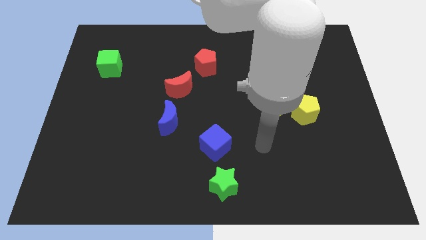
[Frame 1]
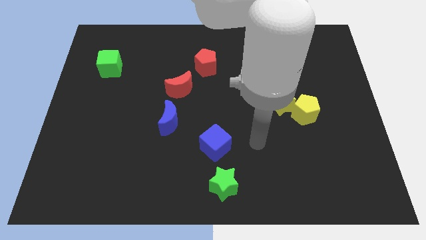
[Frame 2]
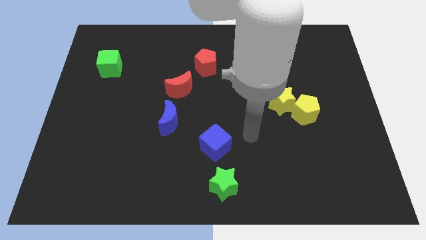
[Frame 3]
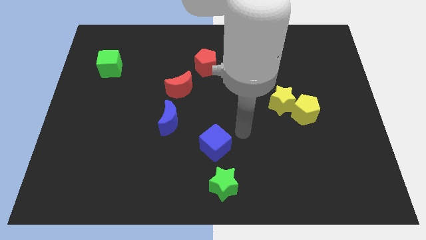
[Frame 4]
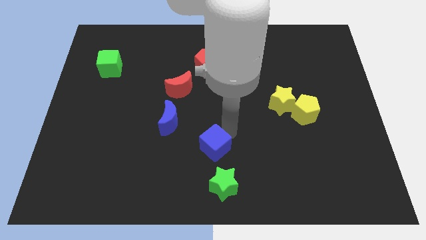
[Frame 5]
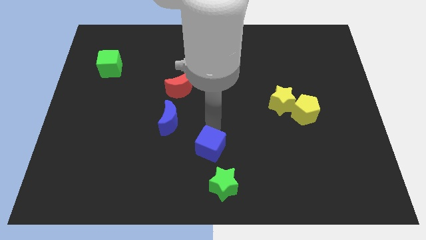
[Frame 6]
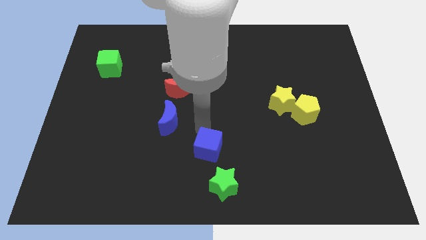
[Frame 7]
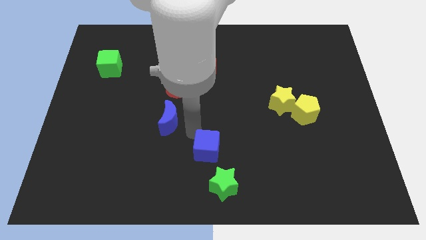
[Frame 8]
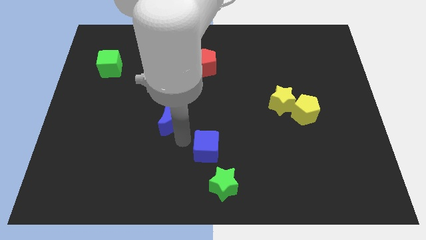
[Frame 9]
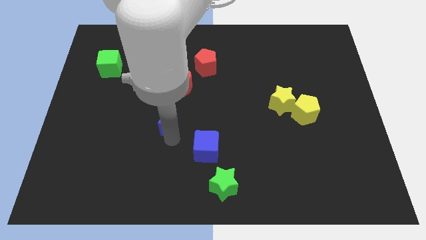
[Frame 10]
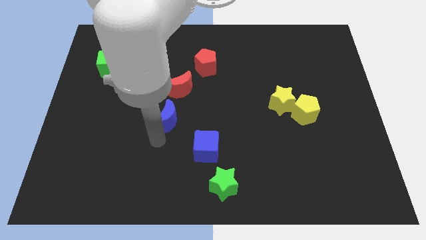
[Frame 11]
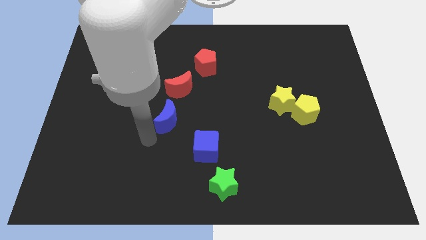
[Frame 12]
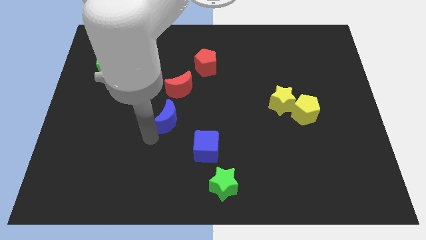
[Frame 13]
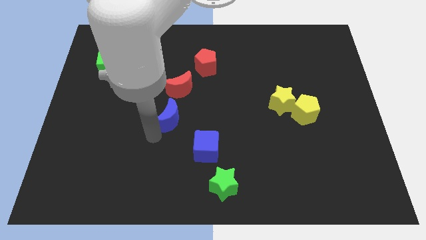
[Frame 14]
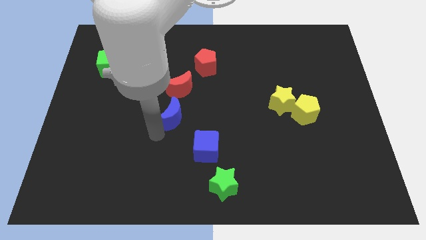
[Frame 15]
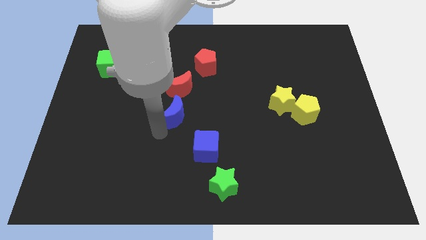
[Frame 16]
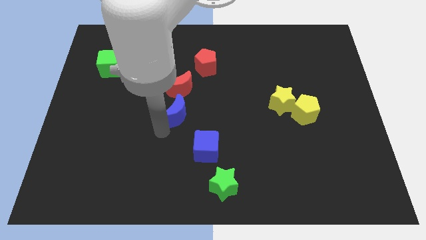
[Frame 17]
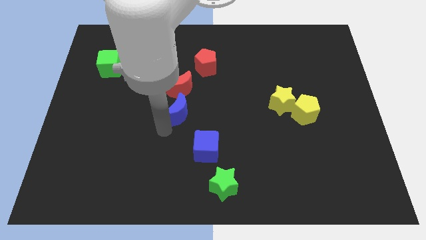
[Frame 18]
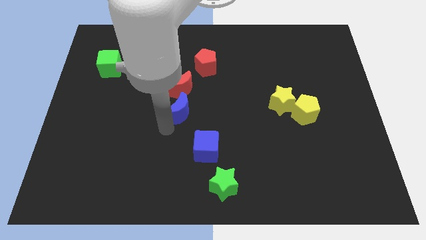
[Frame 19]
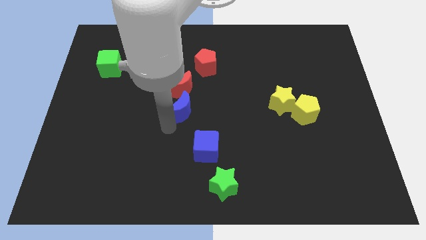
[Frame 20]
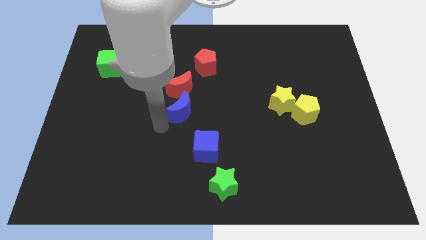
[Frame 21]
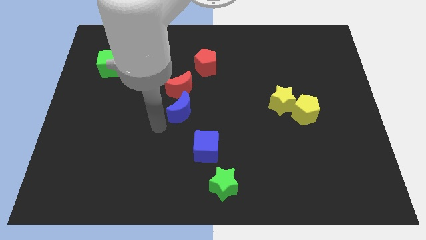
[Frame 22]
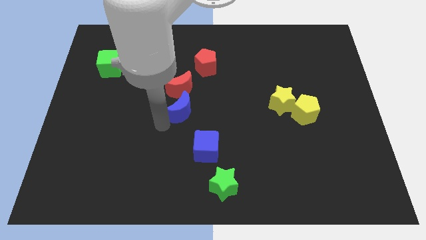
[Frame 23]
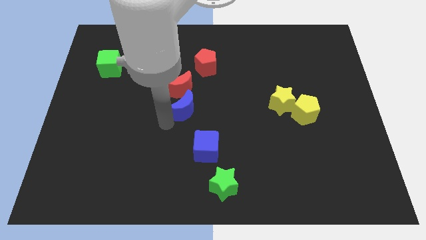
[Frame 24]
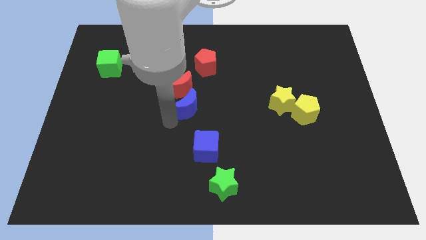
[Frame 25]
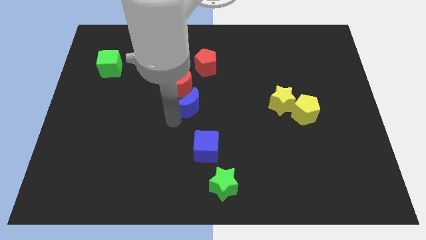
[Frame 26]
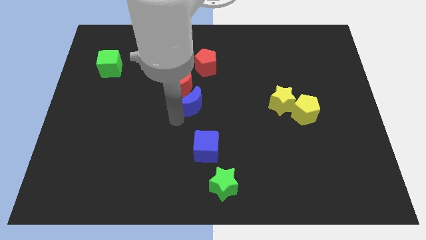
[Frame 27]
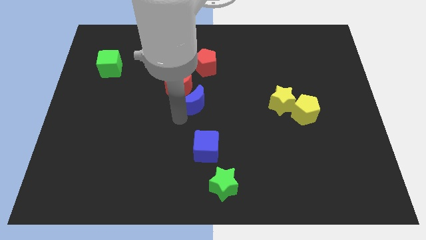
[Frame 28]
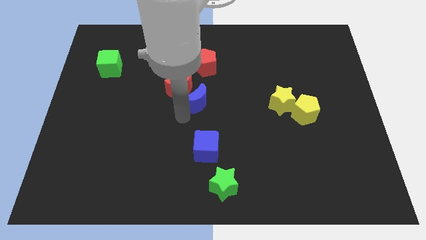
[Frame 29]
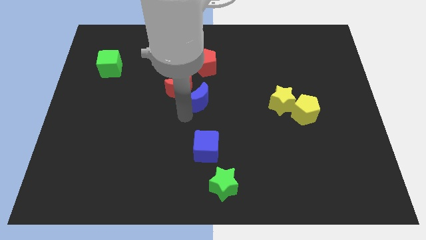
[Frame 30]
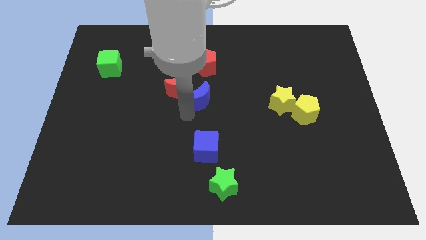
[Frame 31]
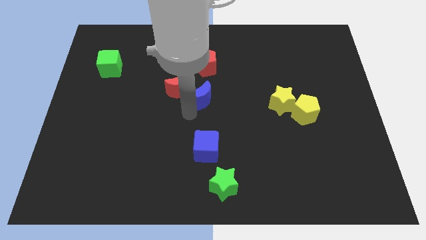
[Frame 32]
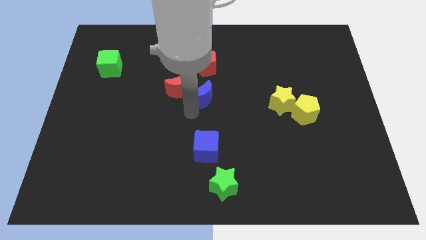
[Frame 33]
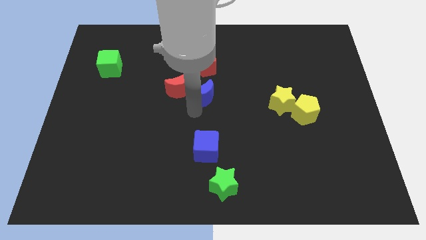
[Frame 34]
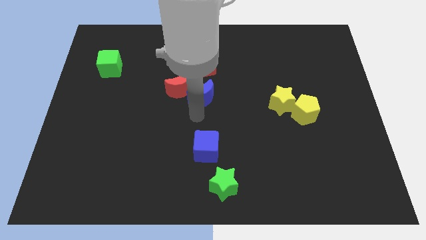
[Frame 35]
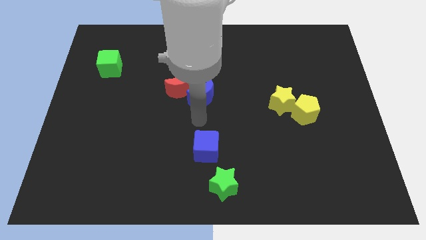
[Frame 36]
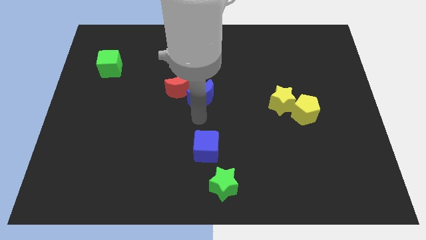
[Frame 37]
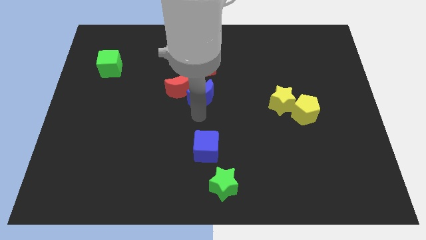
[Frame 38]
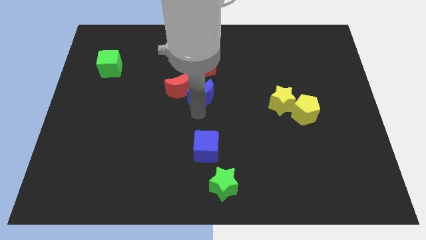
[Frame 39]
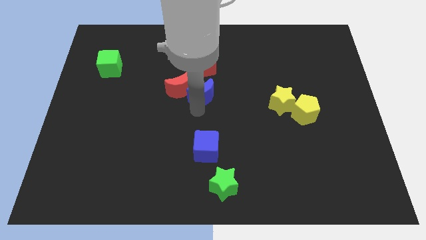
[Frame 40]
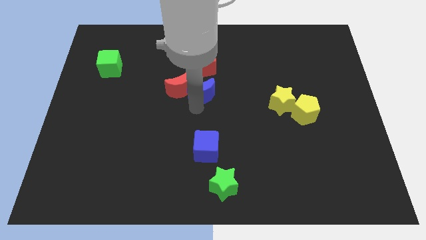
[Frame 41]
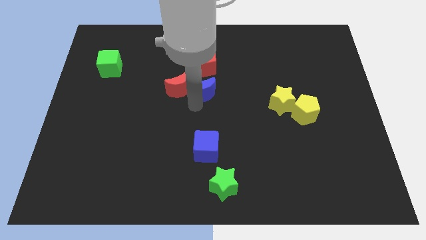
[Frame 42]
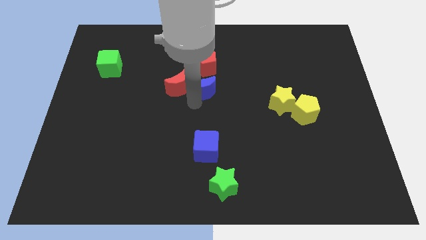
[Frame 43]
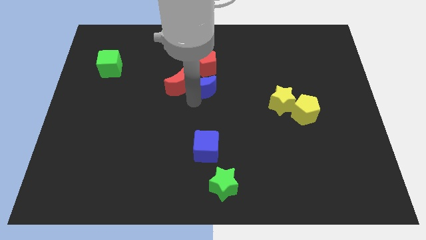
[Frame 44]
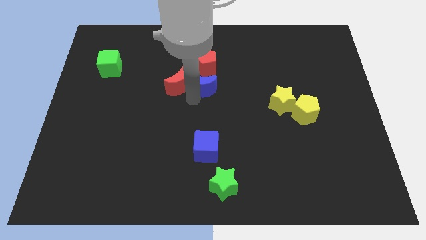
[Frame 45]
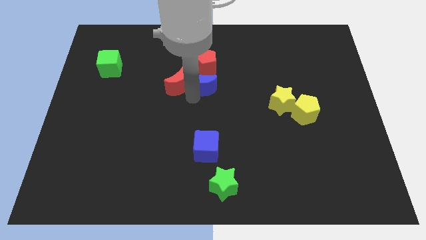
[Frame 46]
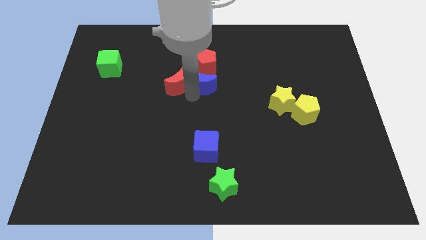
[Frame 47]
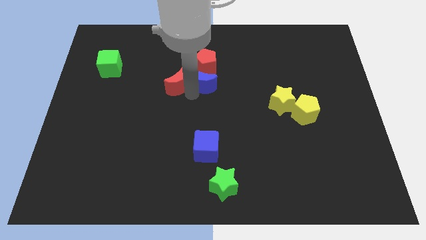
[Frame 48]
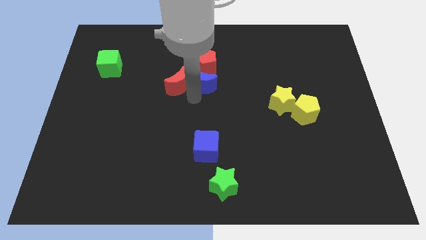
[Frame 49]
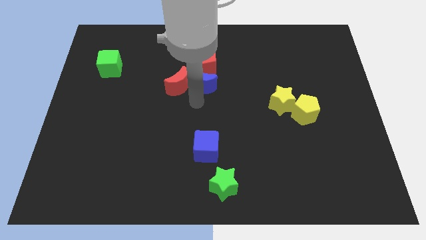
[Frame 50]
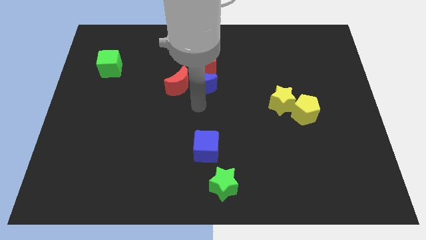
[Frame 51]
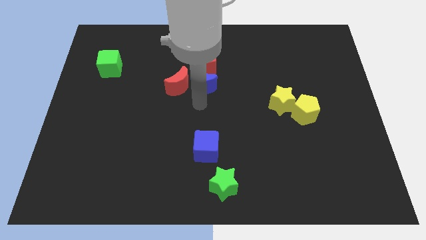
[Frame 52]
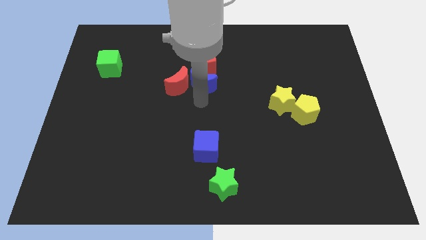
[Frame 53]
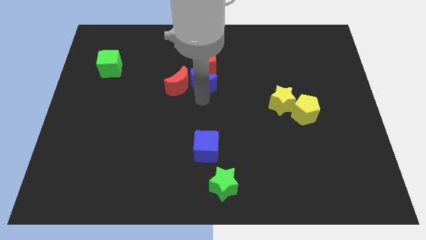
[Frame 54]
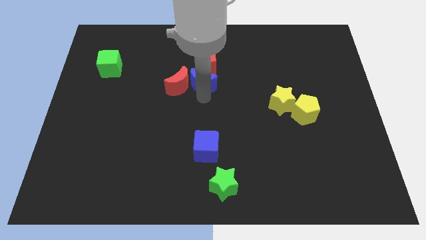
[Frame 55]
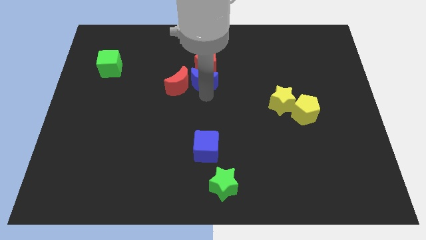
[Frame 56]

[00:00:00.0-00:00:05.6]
put the blue moon towards the red pentagon

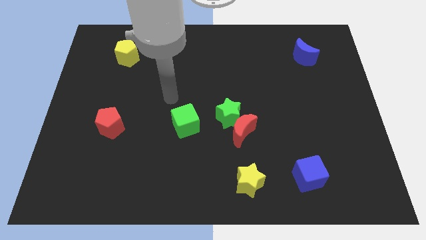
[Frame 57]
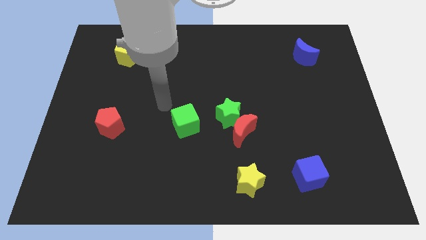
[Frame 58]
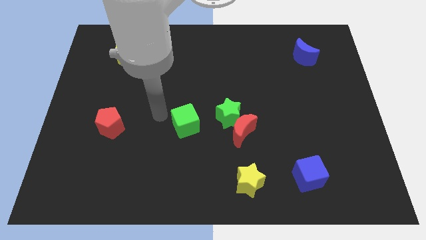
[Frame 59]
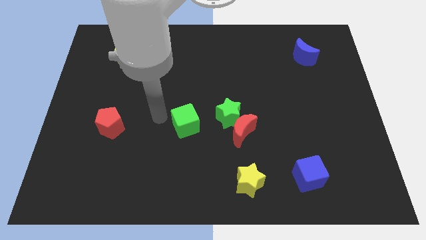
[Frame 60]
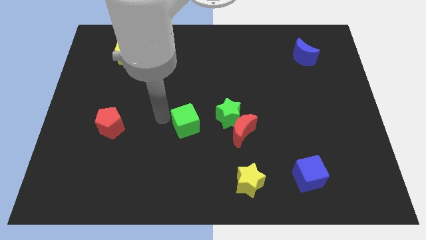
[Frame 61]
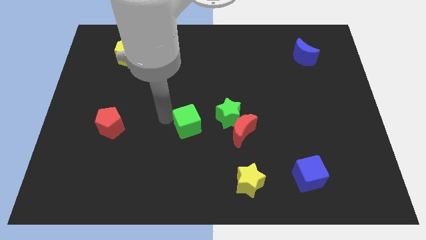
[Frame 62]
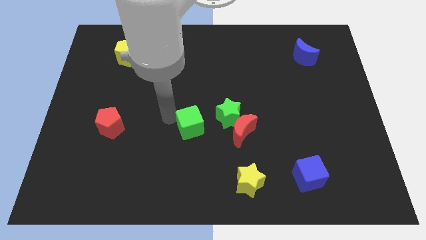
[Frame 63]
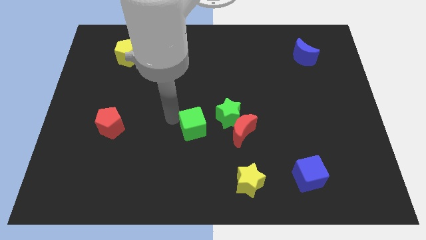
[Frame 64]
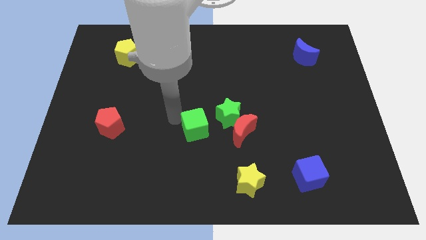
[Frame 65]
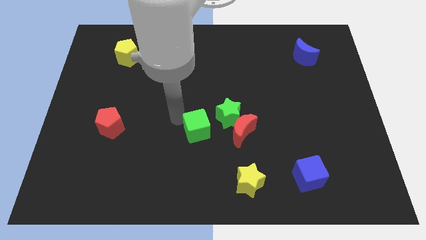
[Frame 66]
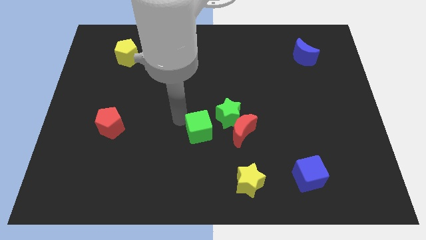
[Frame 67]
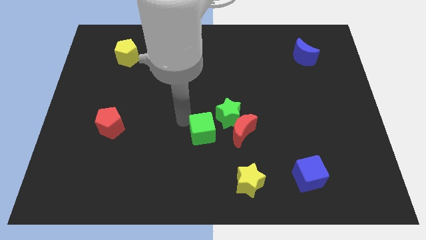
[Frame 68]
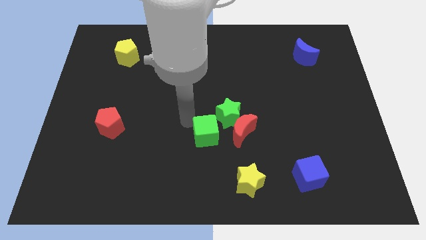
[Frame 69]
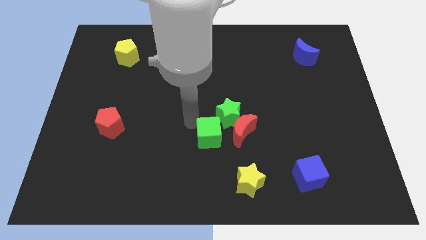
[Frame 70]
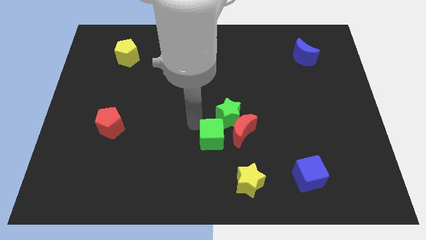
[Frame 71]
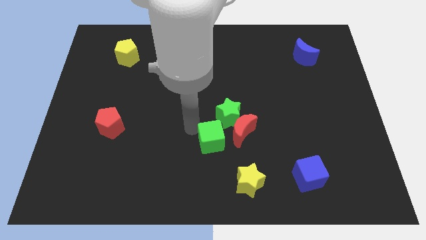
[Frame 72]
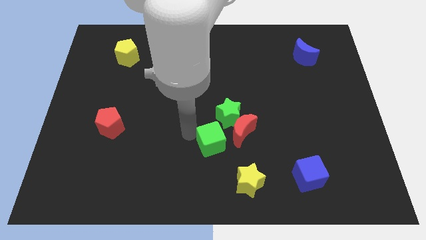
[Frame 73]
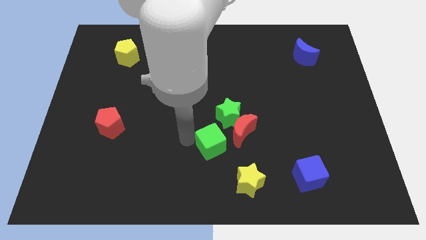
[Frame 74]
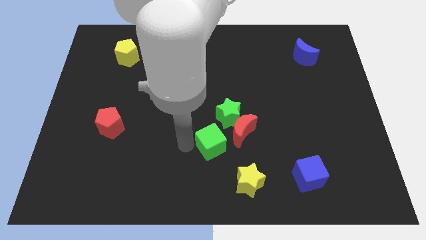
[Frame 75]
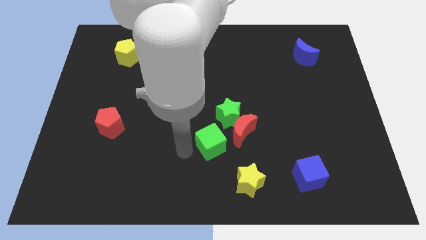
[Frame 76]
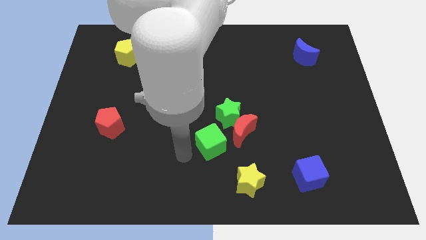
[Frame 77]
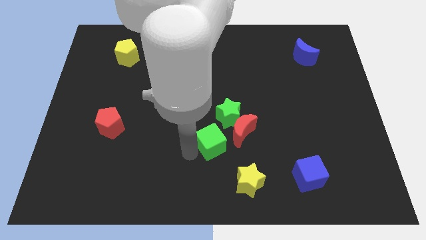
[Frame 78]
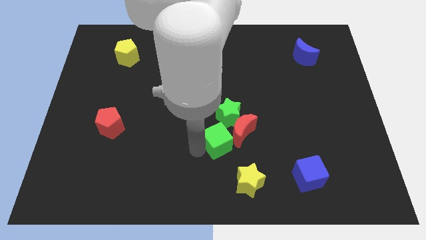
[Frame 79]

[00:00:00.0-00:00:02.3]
slide the green cube towards the red moon

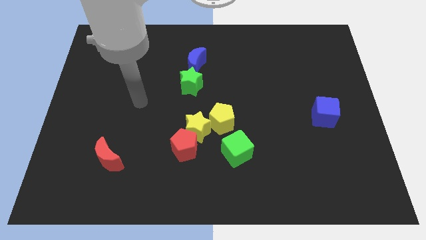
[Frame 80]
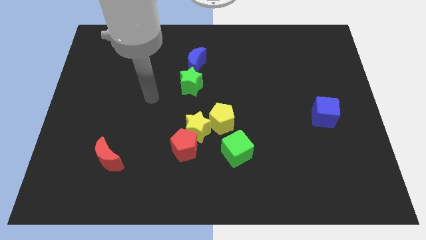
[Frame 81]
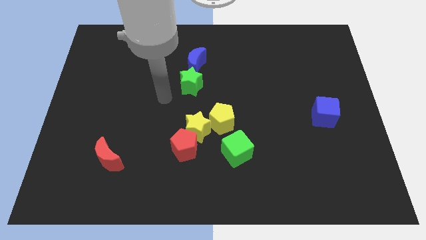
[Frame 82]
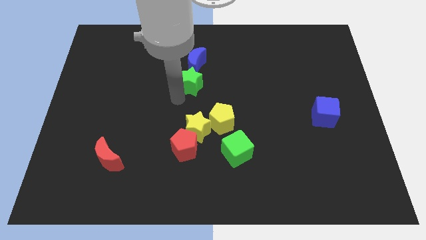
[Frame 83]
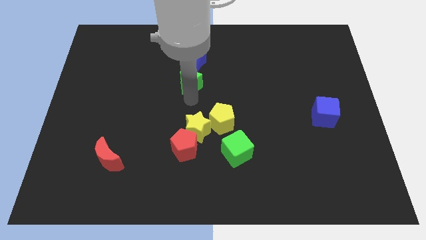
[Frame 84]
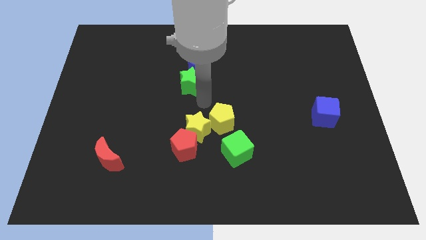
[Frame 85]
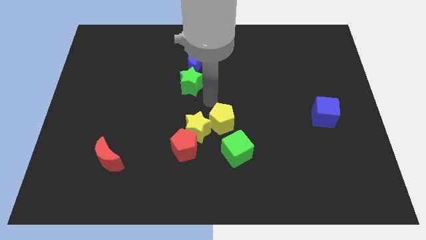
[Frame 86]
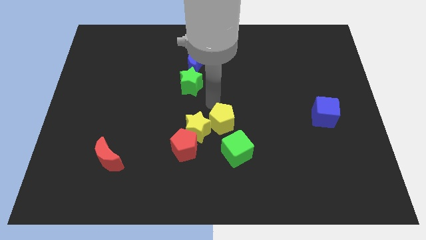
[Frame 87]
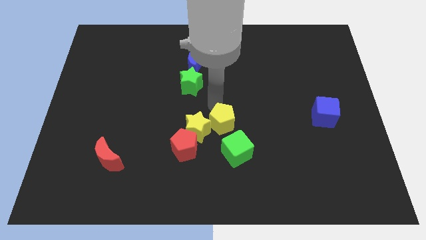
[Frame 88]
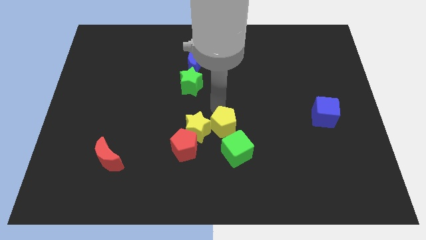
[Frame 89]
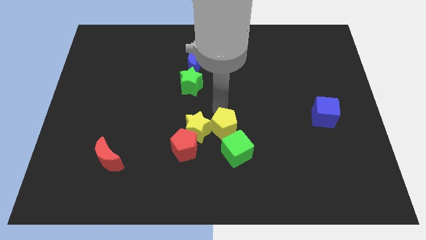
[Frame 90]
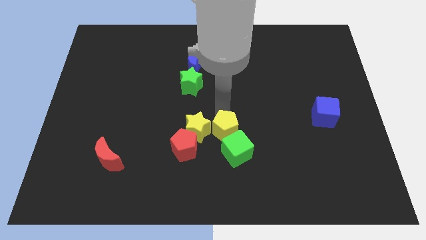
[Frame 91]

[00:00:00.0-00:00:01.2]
push the yellow pentagon next to the green cube
